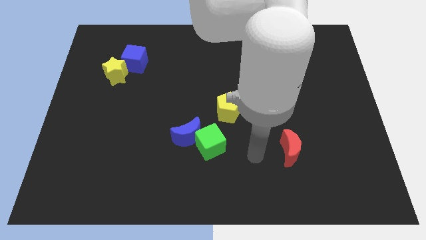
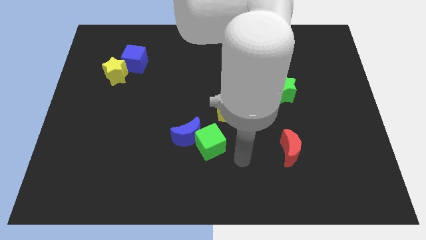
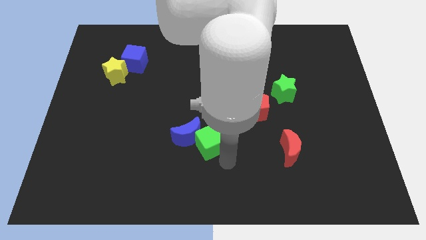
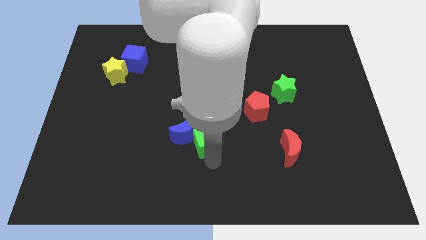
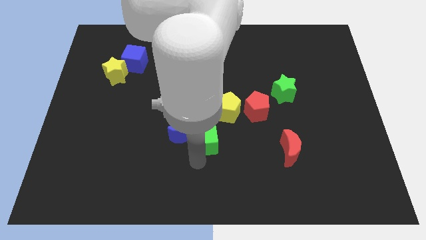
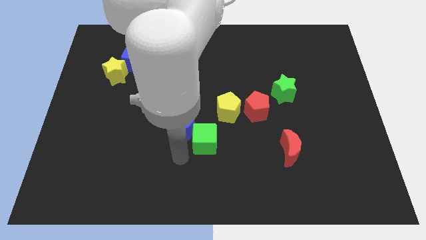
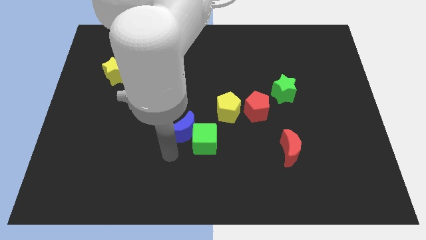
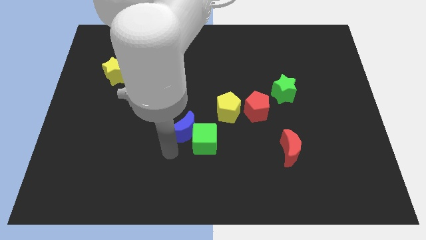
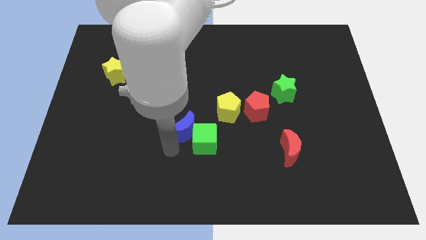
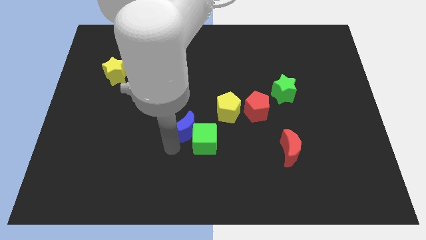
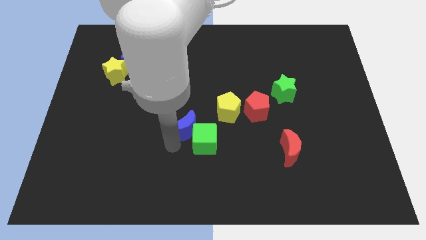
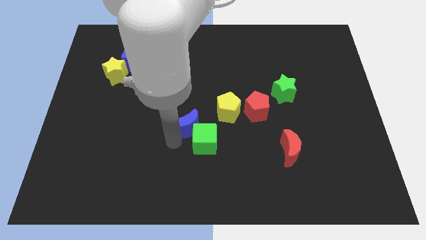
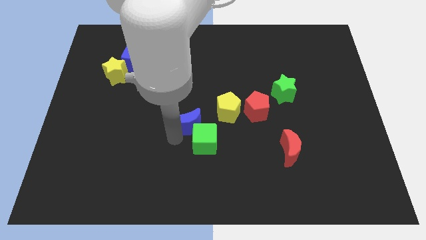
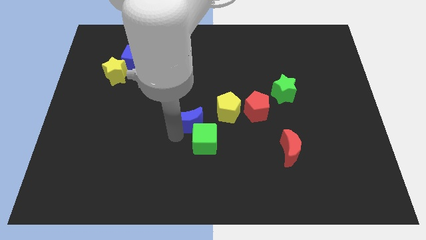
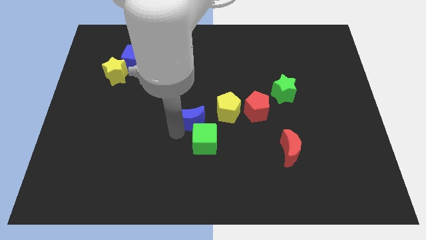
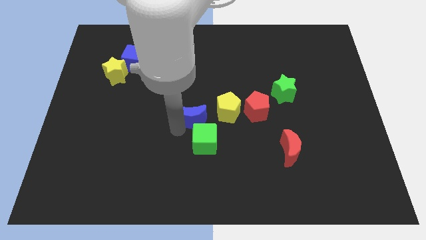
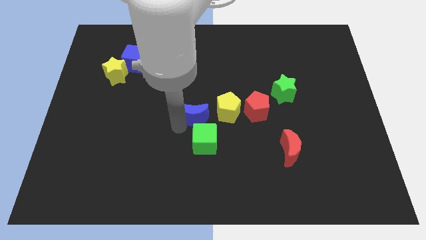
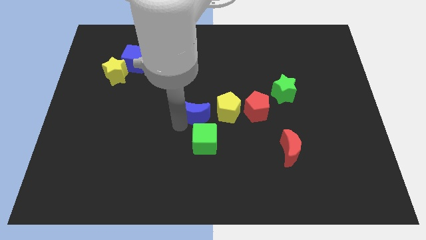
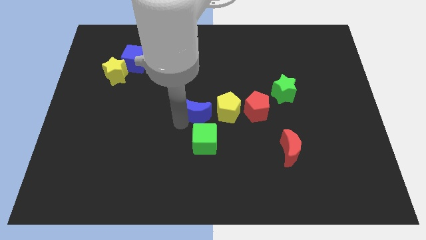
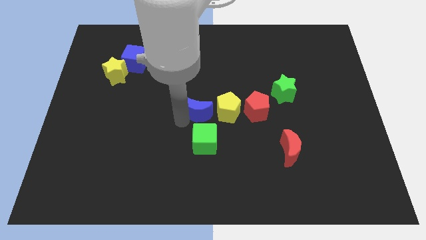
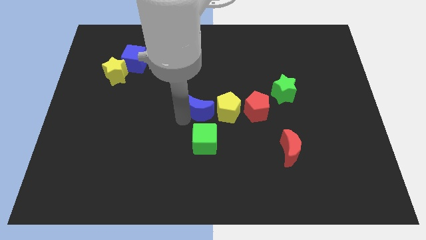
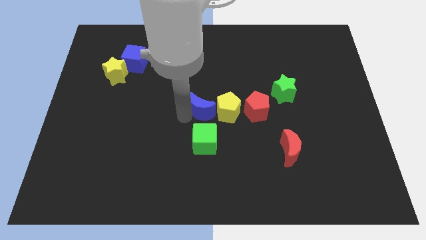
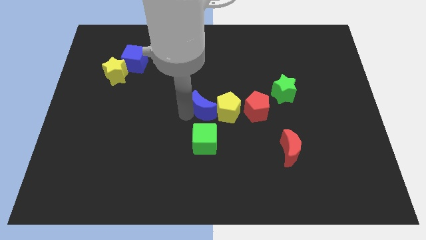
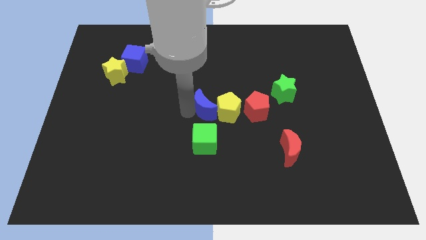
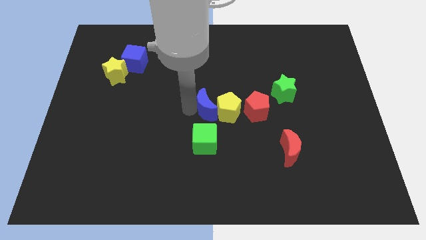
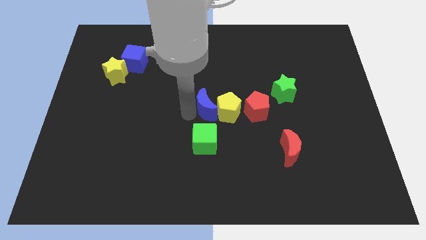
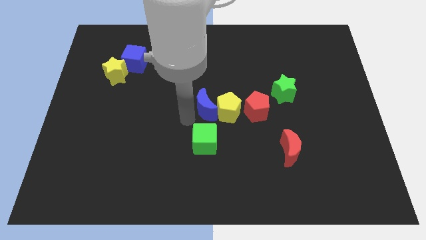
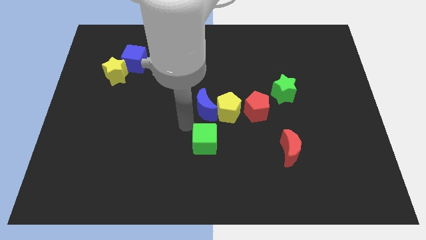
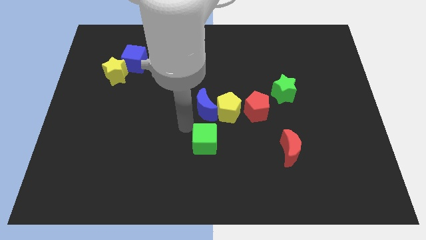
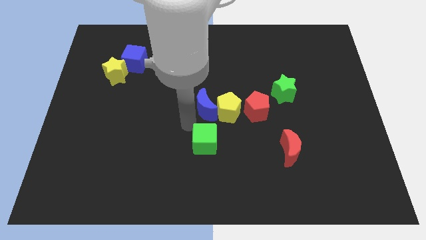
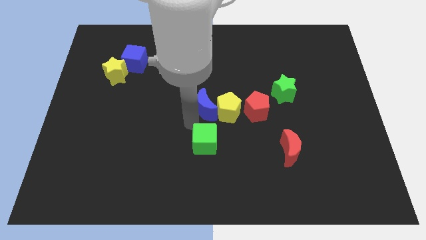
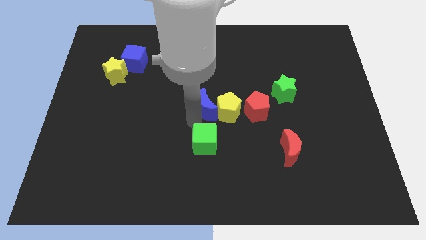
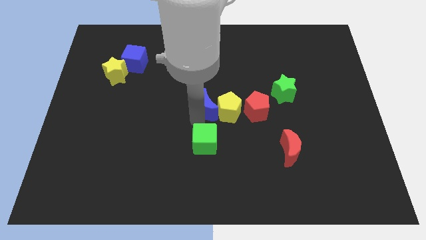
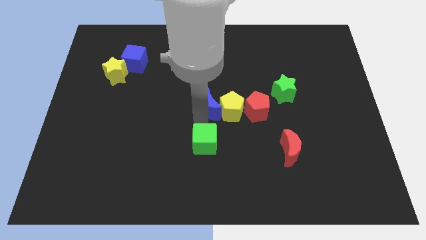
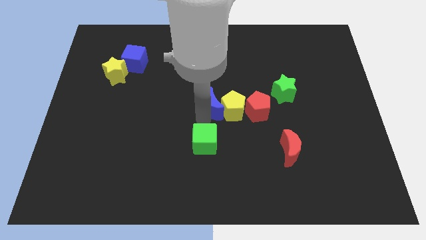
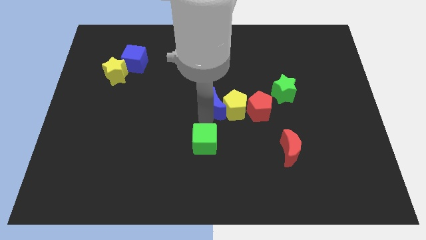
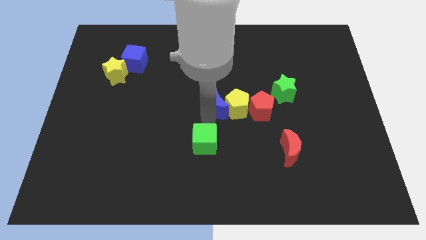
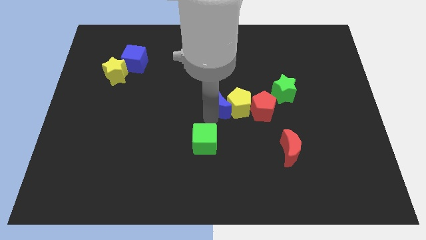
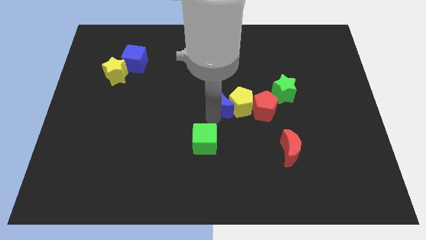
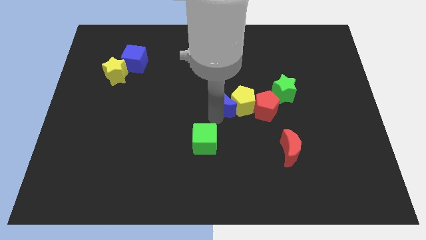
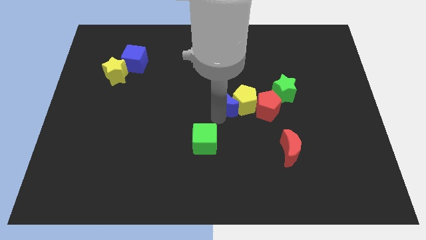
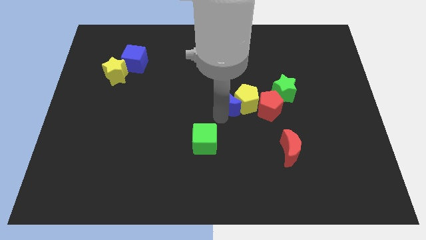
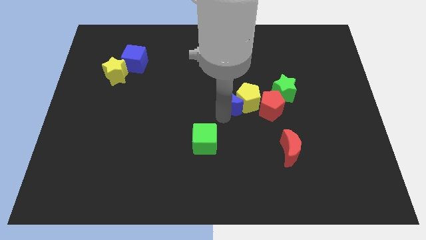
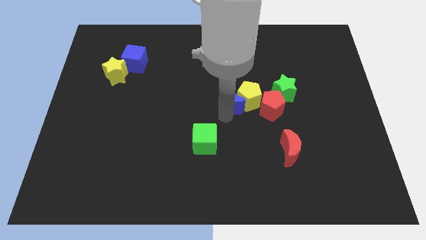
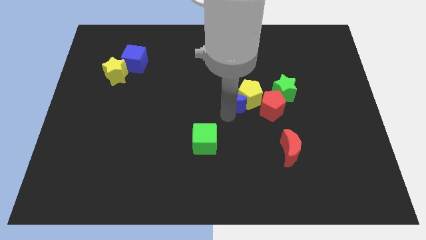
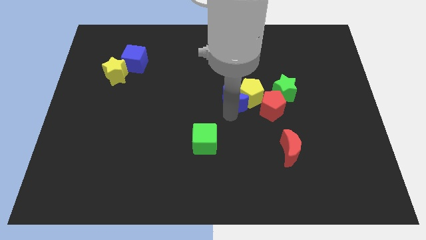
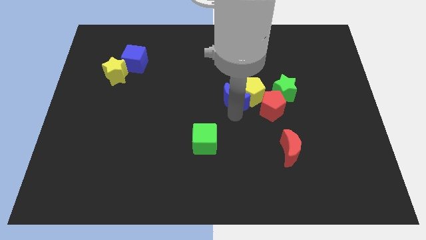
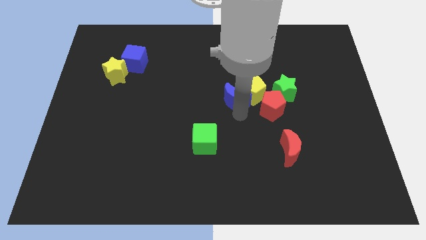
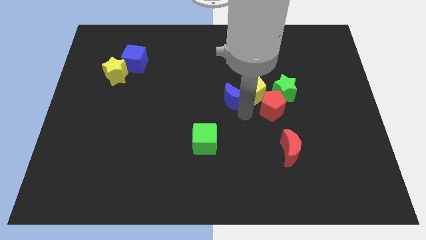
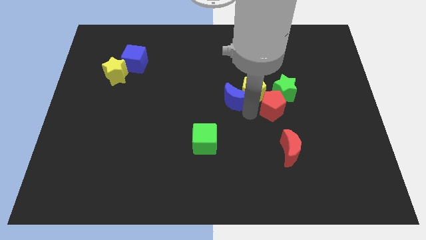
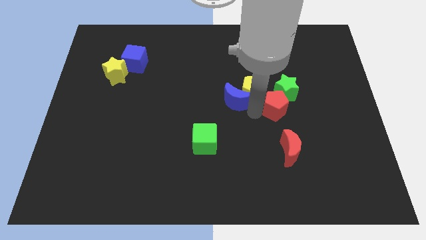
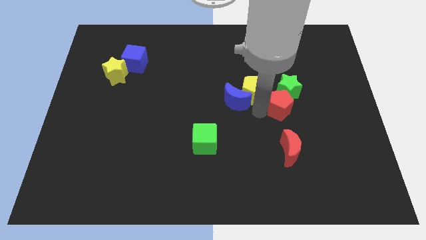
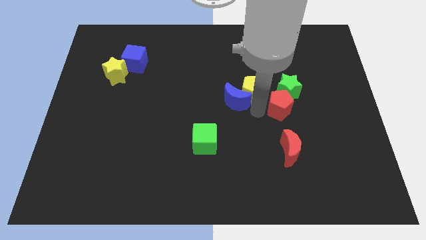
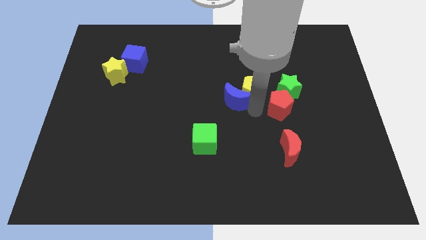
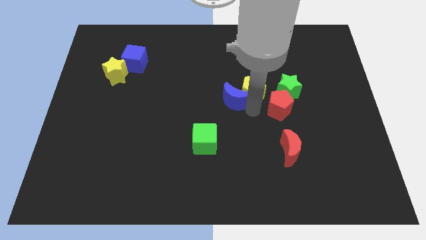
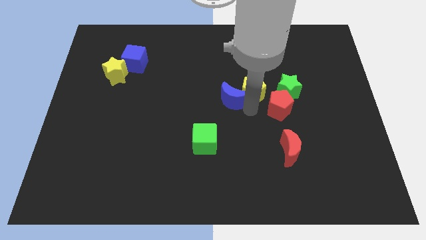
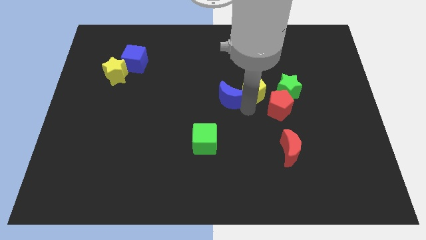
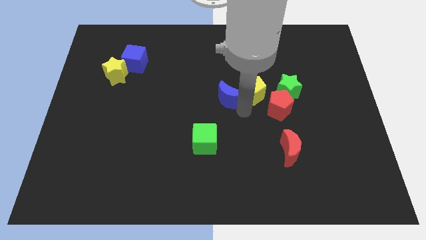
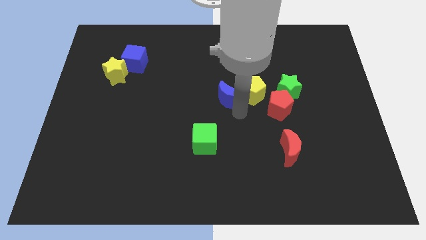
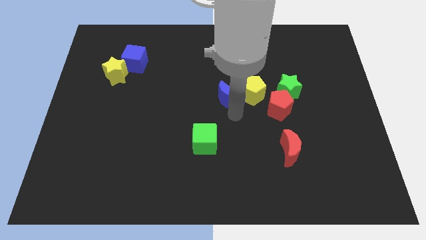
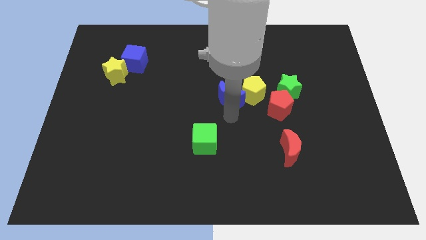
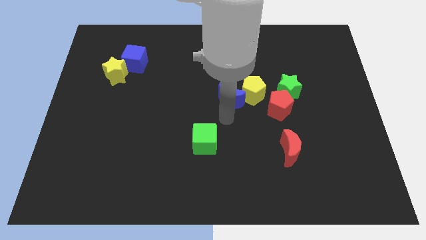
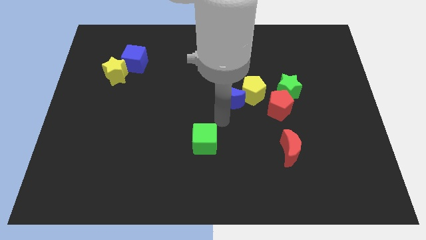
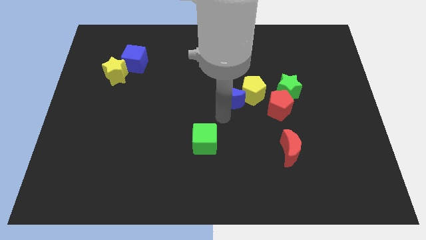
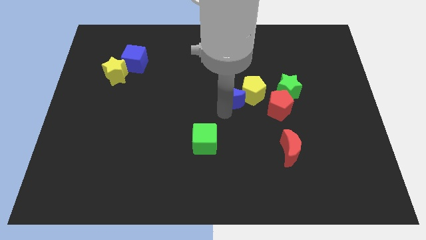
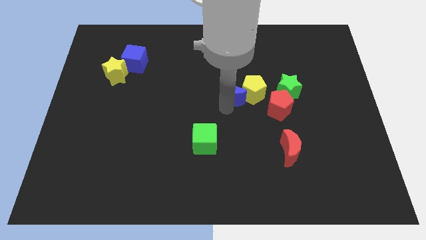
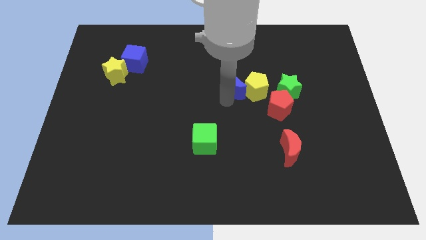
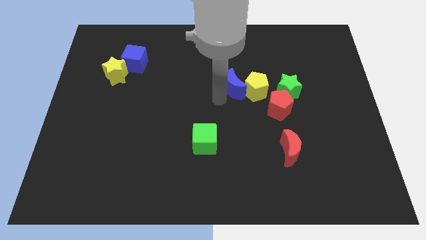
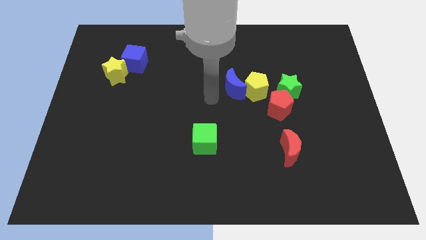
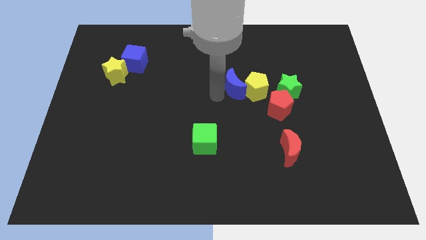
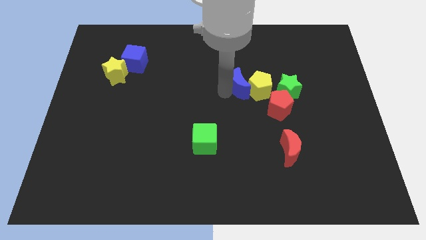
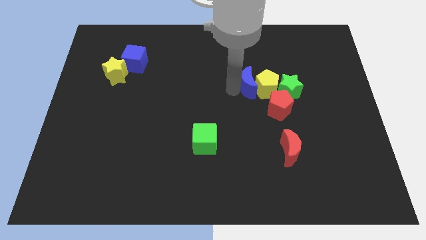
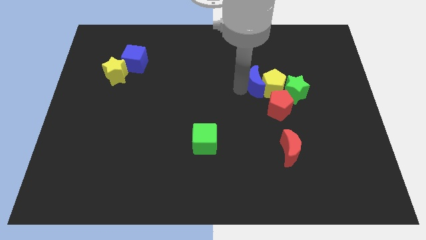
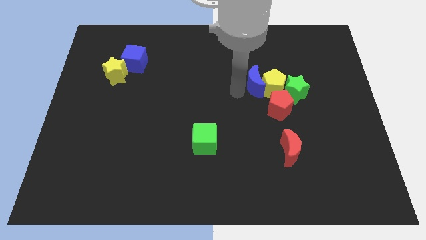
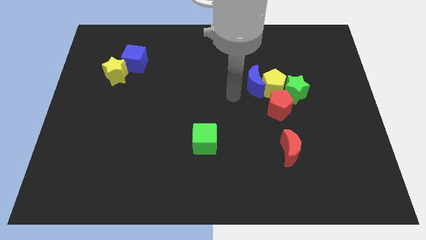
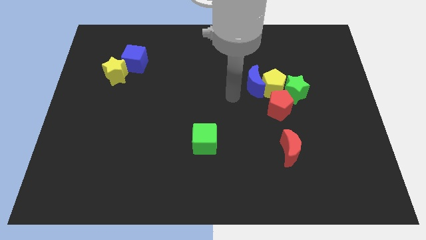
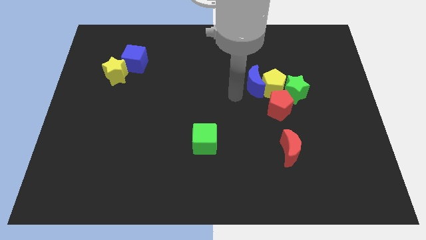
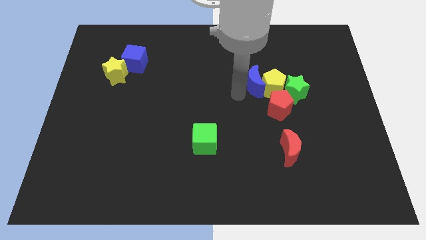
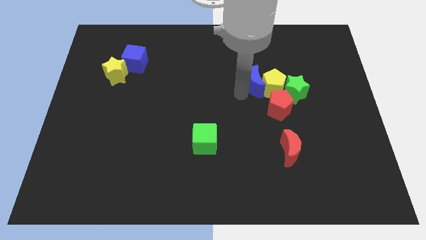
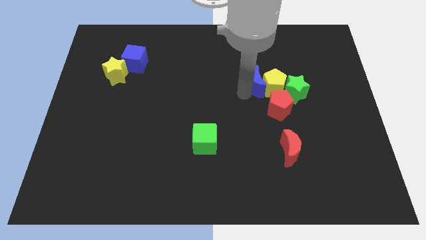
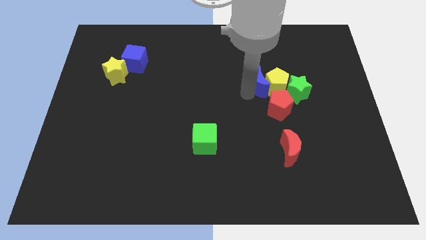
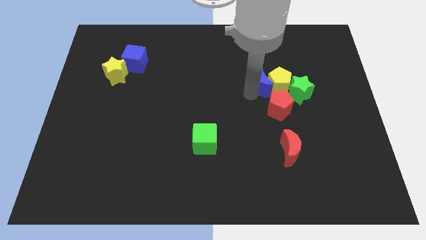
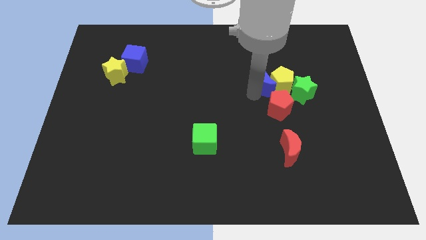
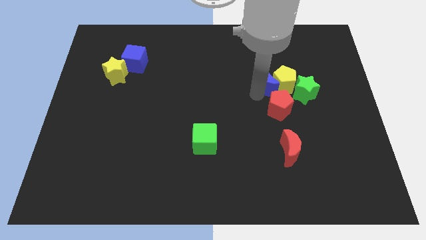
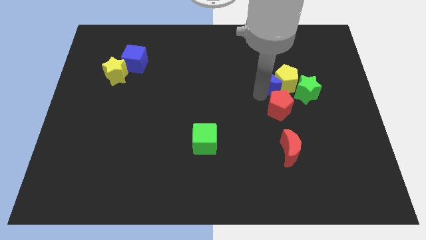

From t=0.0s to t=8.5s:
slide the blue moon to the top left of the green star
